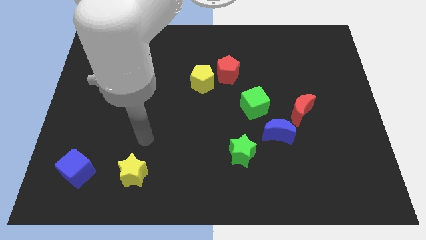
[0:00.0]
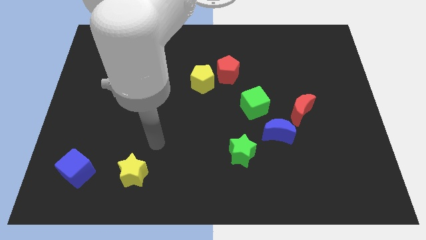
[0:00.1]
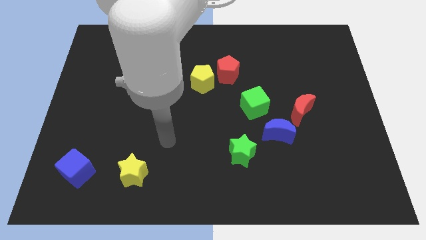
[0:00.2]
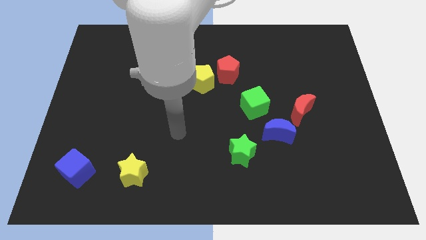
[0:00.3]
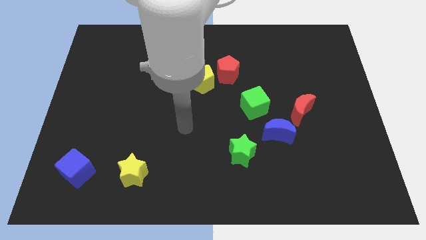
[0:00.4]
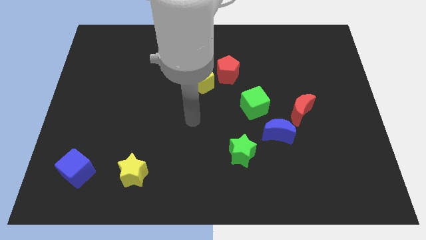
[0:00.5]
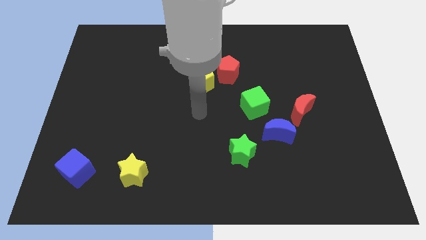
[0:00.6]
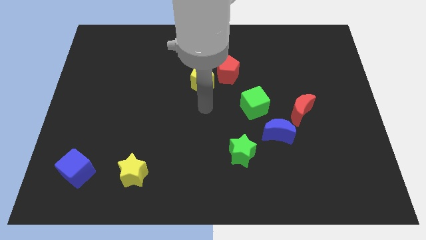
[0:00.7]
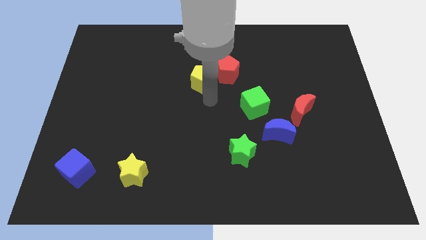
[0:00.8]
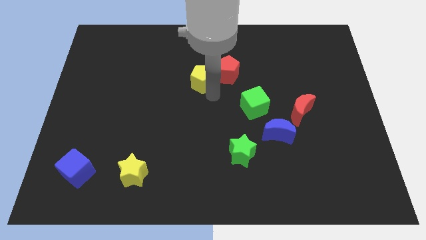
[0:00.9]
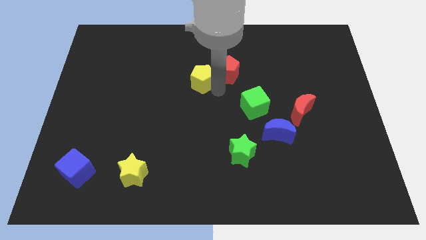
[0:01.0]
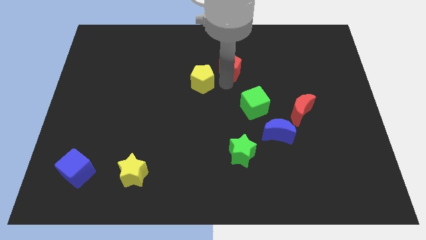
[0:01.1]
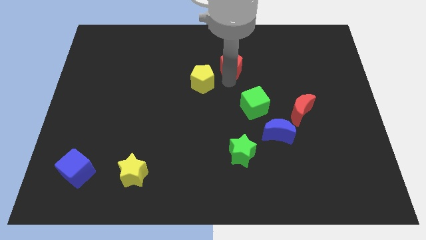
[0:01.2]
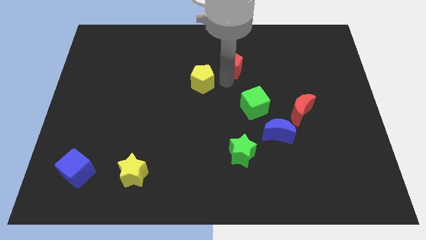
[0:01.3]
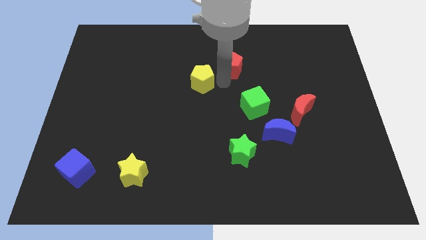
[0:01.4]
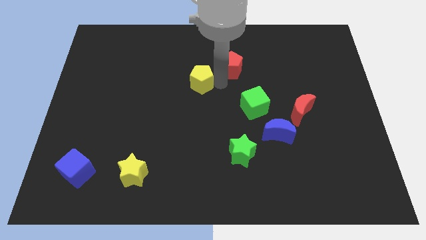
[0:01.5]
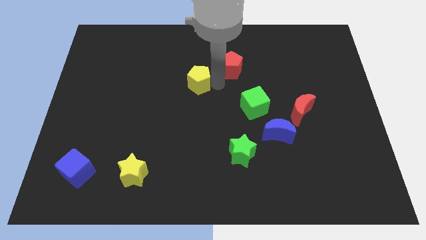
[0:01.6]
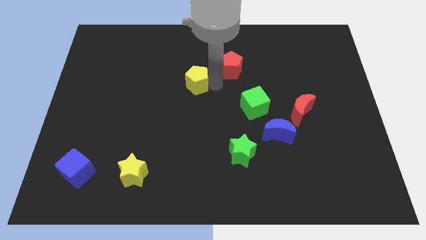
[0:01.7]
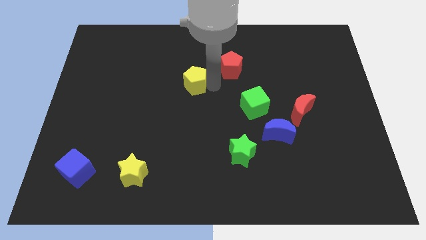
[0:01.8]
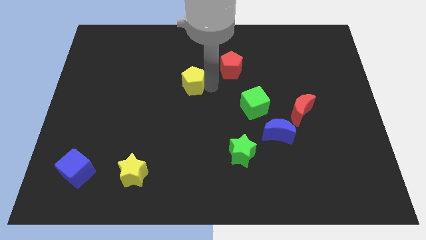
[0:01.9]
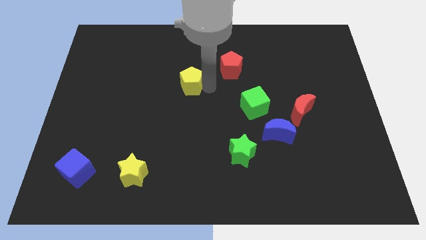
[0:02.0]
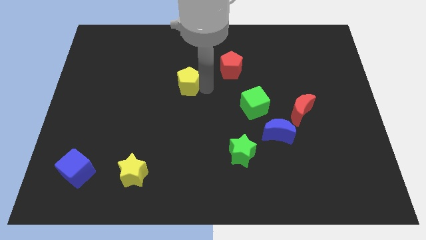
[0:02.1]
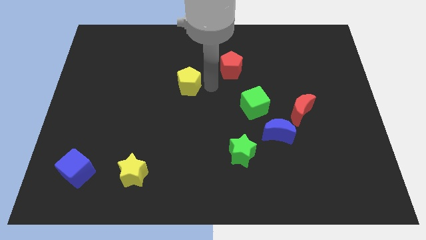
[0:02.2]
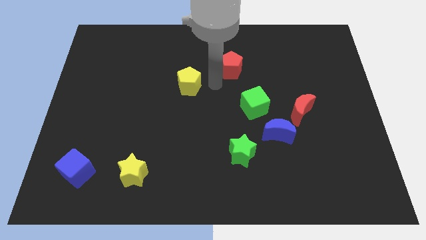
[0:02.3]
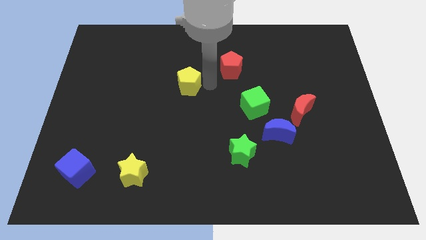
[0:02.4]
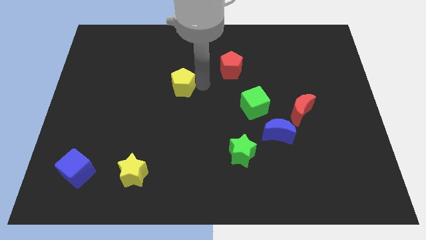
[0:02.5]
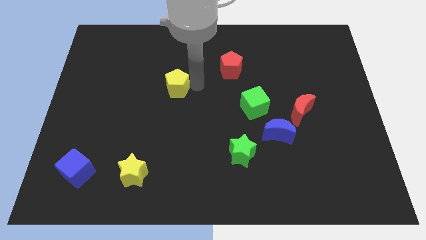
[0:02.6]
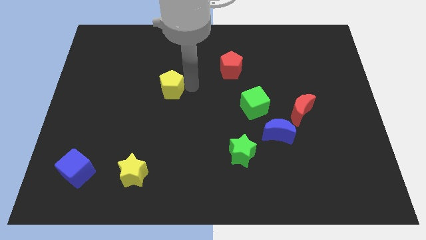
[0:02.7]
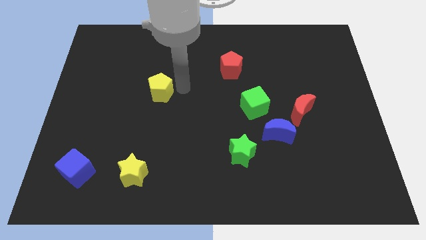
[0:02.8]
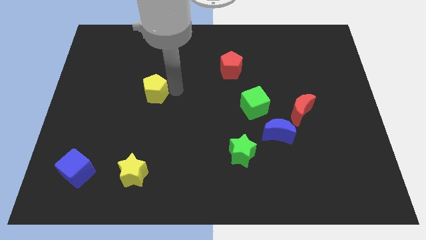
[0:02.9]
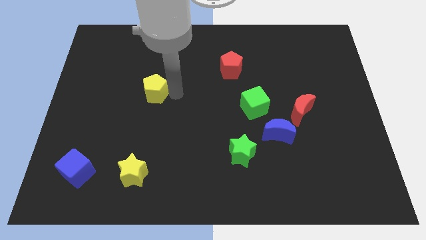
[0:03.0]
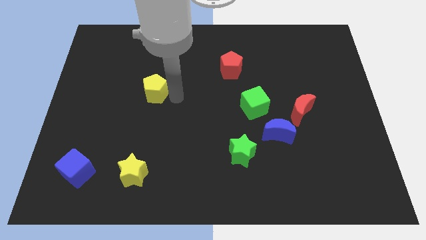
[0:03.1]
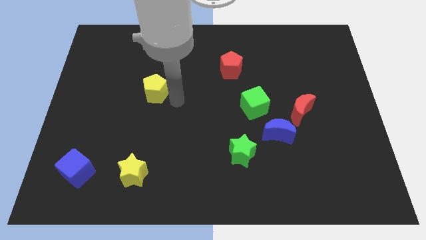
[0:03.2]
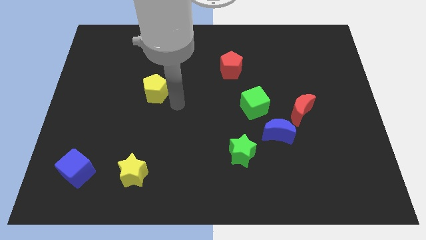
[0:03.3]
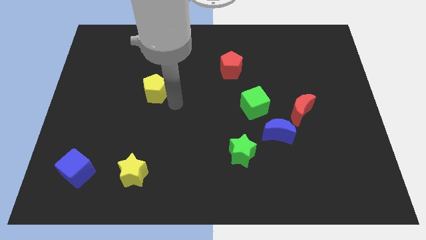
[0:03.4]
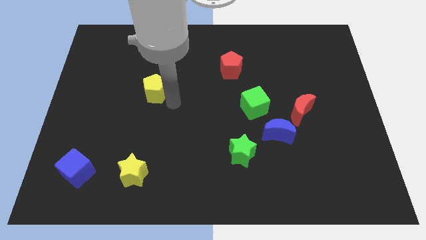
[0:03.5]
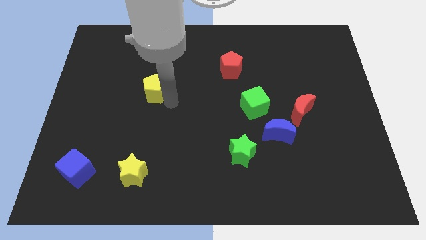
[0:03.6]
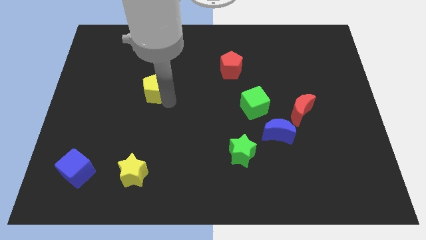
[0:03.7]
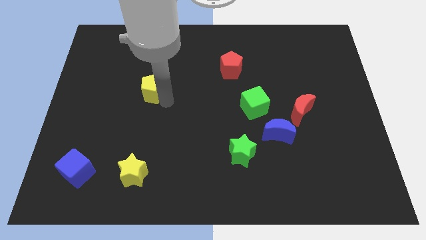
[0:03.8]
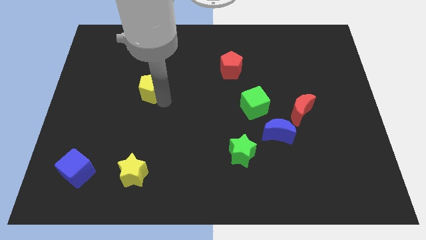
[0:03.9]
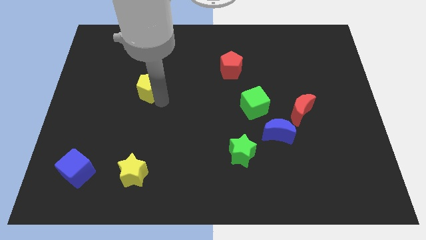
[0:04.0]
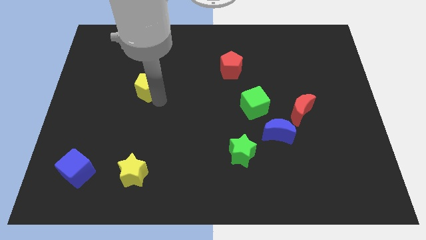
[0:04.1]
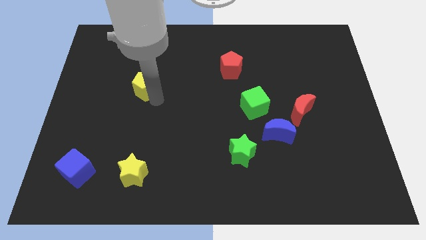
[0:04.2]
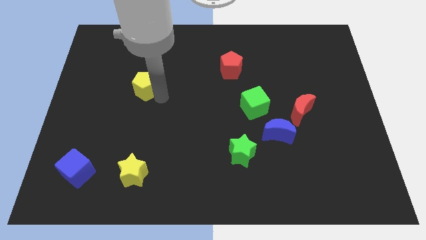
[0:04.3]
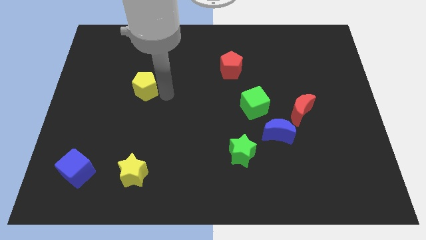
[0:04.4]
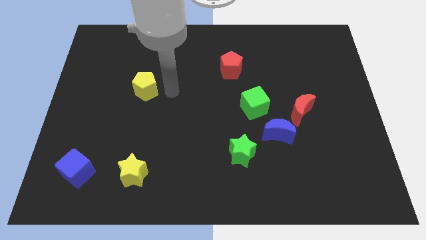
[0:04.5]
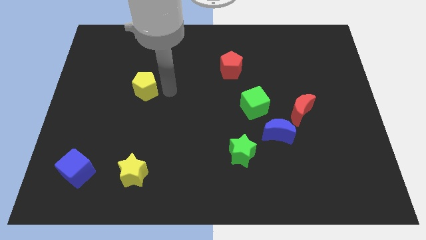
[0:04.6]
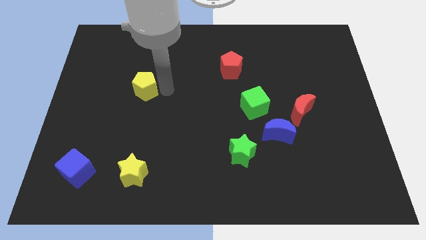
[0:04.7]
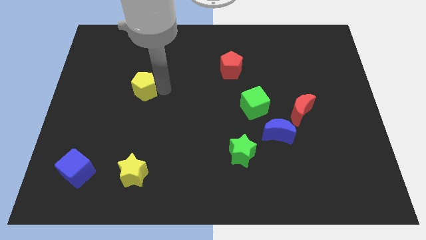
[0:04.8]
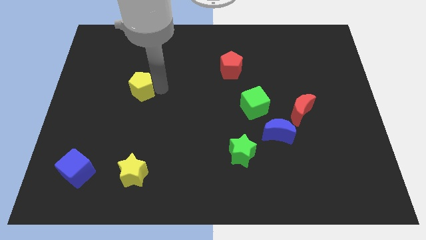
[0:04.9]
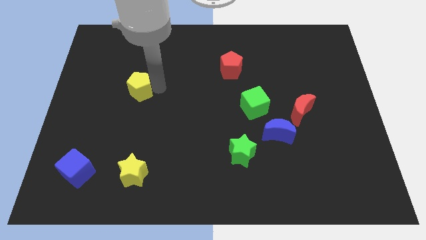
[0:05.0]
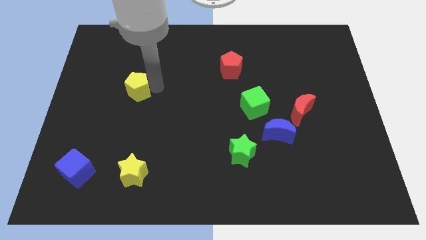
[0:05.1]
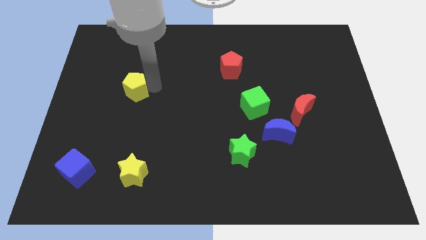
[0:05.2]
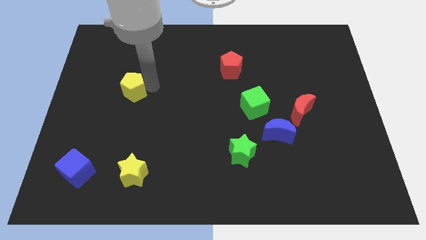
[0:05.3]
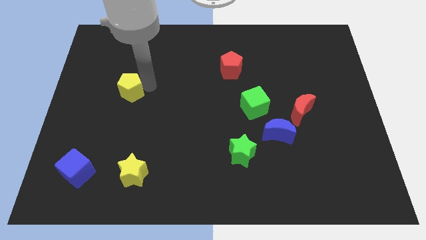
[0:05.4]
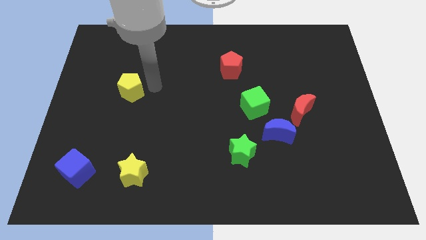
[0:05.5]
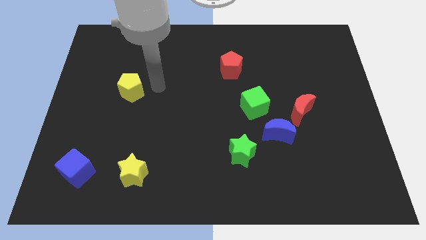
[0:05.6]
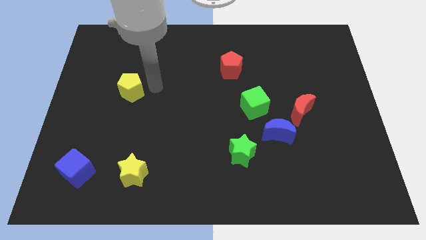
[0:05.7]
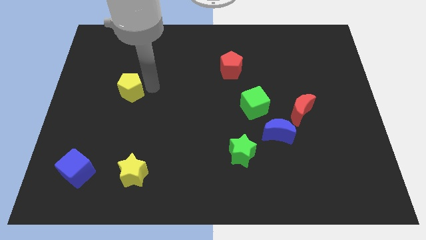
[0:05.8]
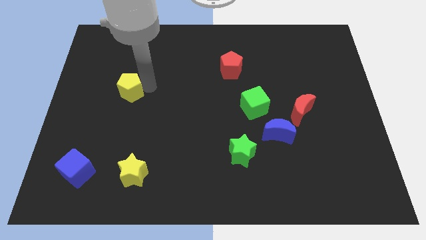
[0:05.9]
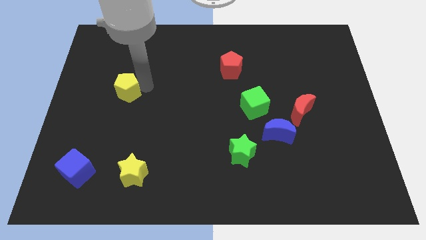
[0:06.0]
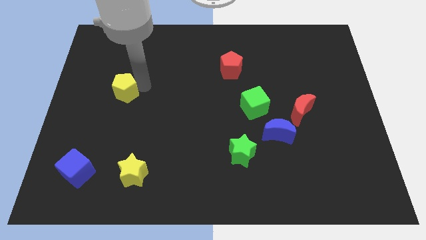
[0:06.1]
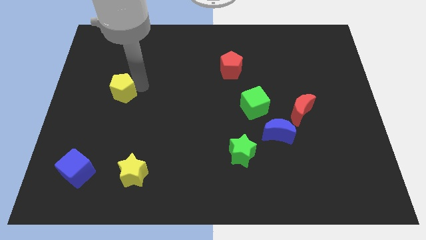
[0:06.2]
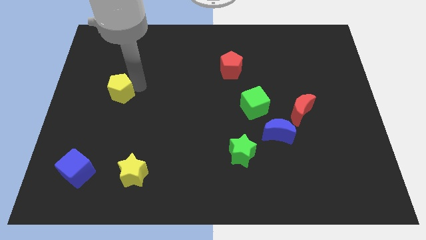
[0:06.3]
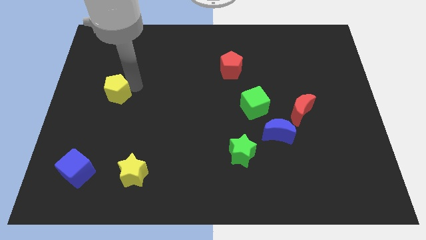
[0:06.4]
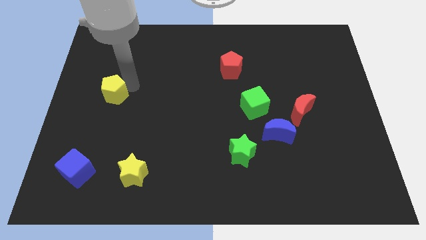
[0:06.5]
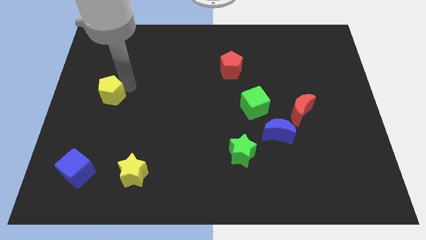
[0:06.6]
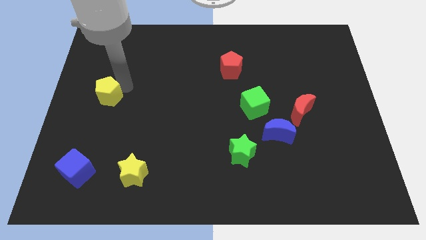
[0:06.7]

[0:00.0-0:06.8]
slide the yellow pentagon to the center left
